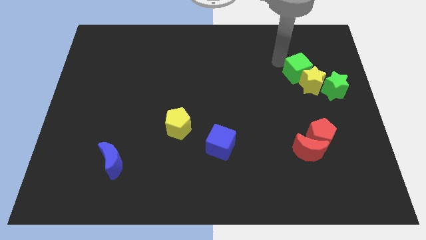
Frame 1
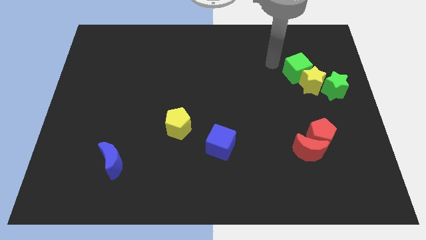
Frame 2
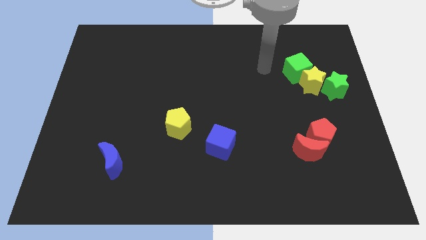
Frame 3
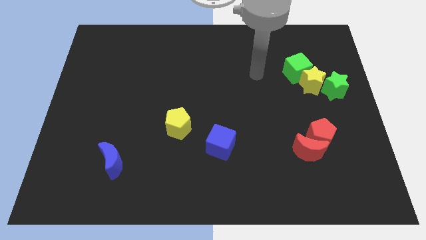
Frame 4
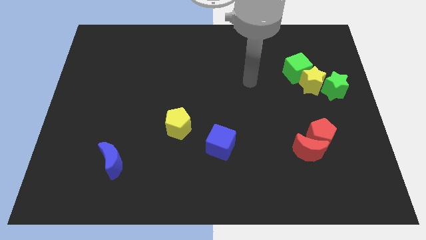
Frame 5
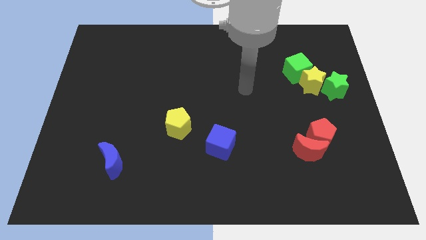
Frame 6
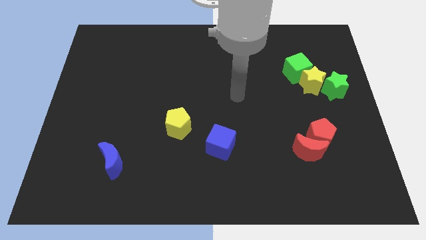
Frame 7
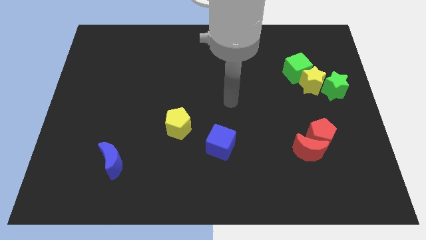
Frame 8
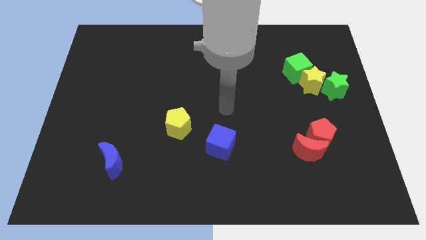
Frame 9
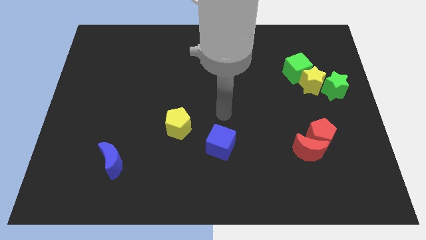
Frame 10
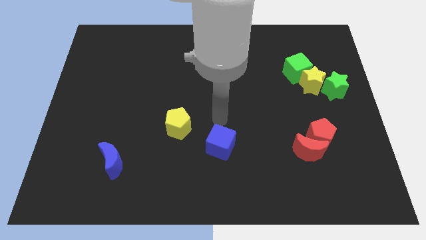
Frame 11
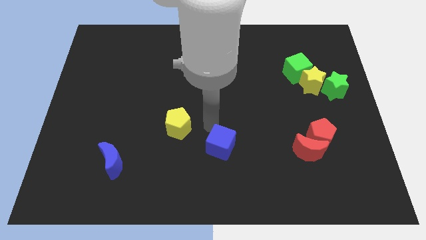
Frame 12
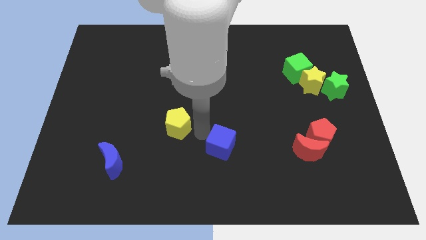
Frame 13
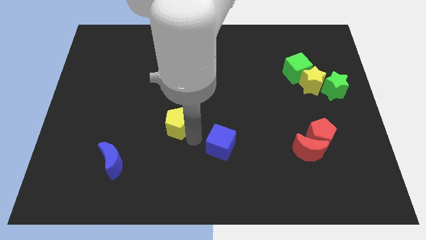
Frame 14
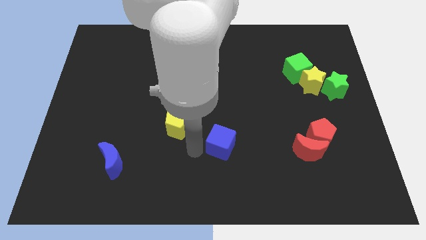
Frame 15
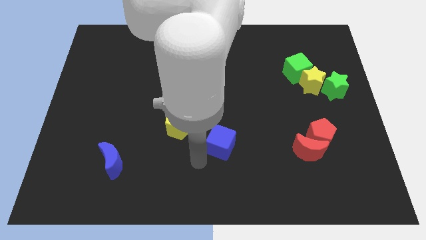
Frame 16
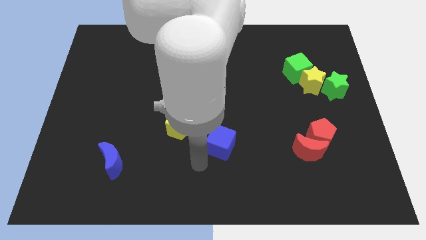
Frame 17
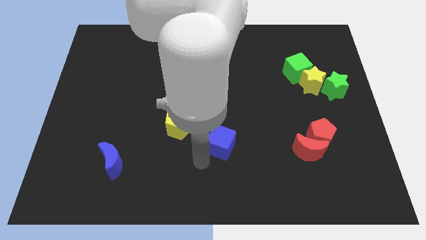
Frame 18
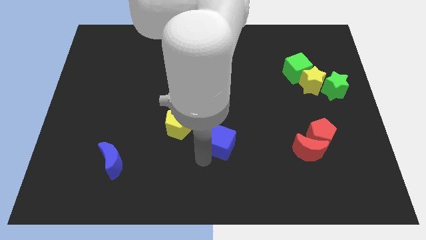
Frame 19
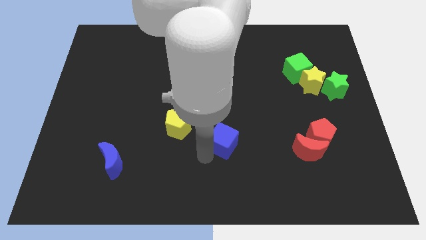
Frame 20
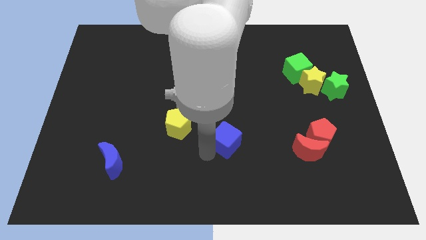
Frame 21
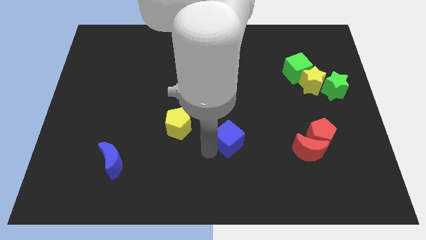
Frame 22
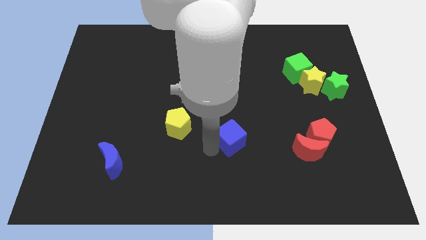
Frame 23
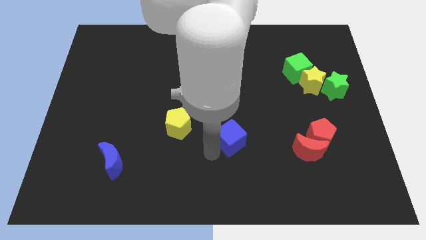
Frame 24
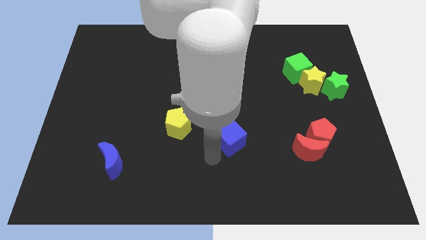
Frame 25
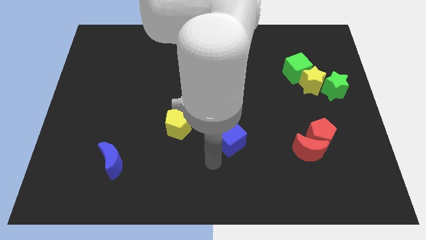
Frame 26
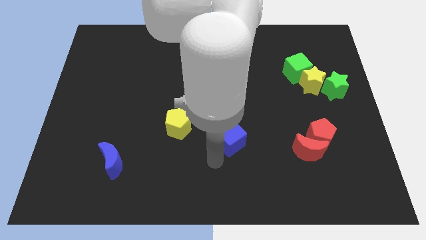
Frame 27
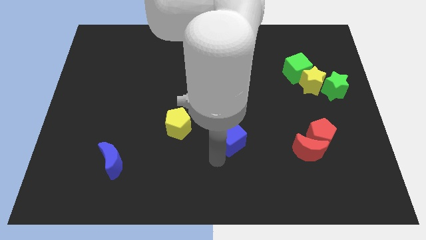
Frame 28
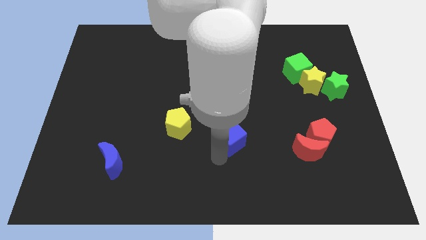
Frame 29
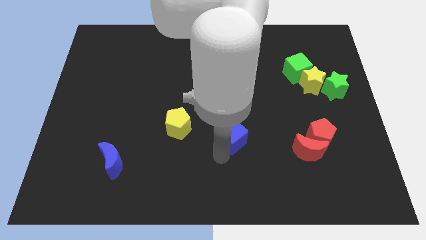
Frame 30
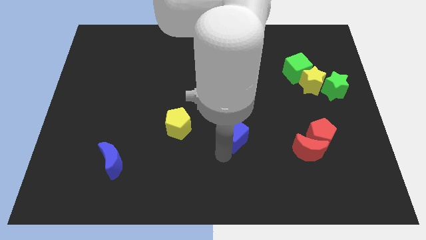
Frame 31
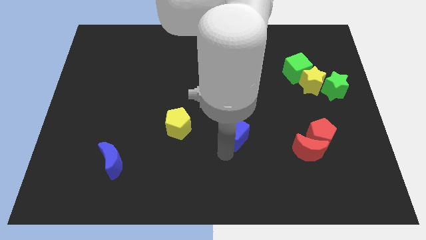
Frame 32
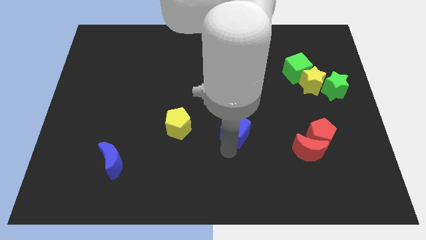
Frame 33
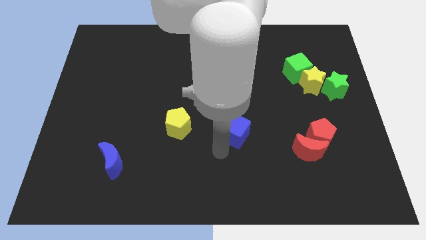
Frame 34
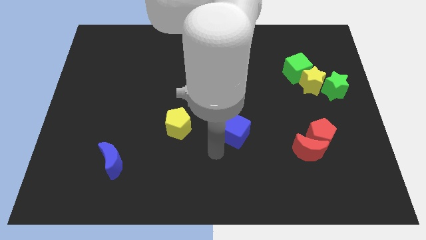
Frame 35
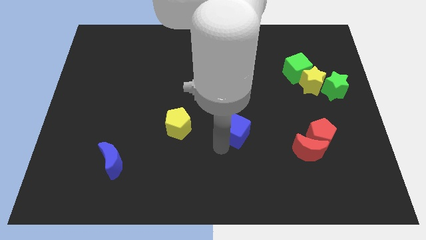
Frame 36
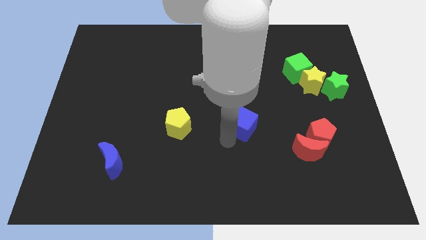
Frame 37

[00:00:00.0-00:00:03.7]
slide the blue cube upwards and to the right a bit

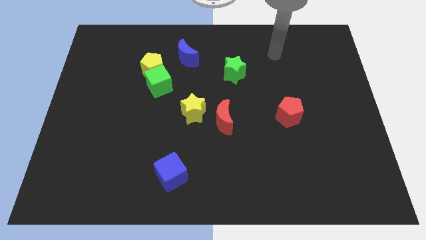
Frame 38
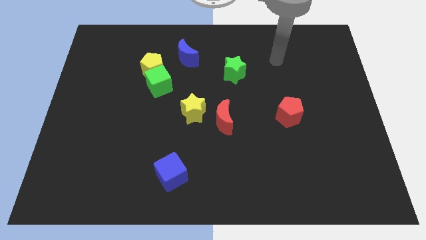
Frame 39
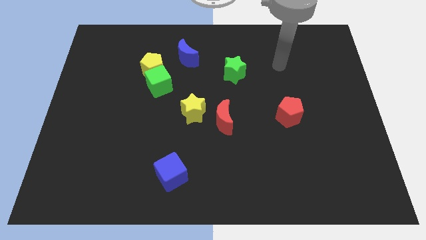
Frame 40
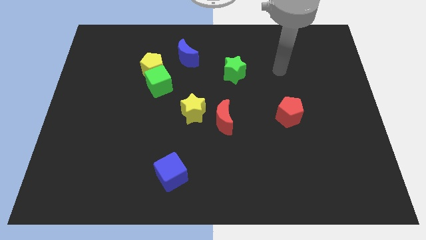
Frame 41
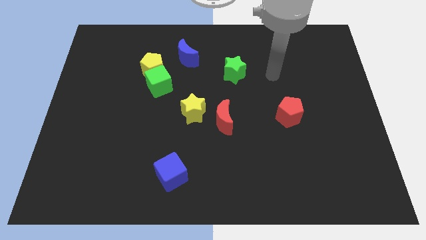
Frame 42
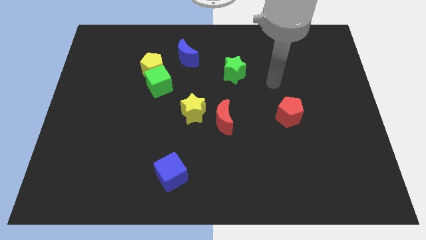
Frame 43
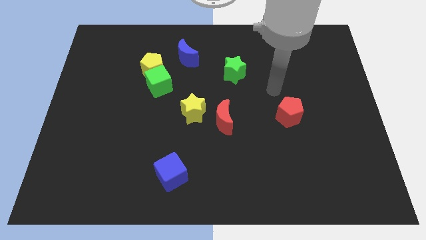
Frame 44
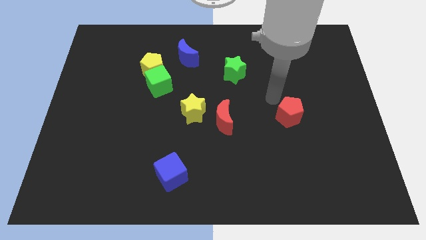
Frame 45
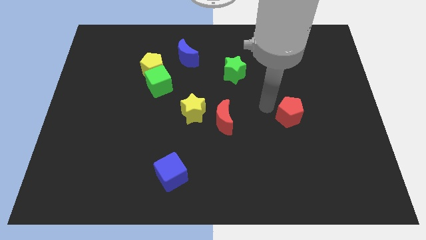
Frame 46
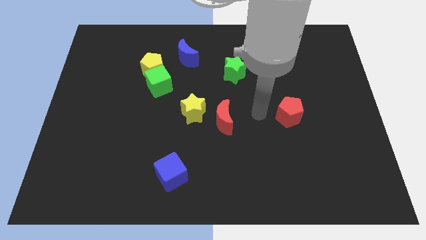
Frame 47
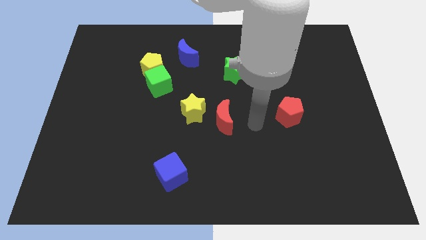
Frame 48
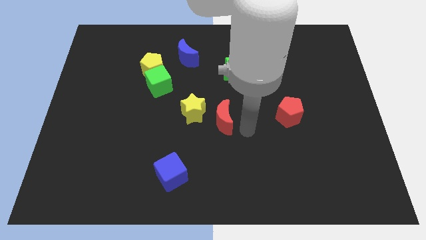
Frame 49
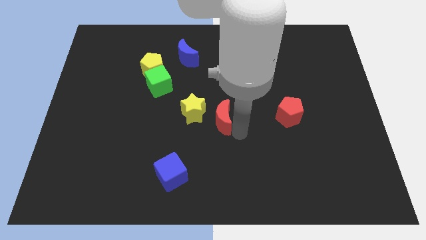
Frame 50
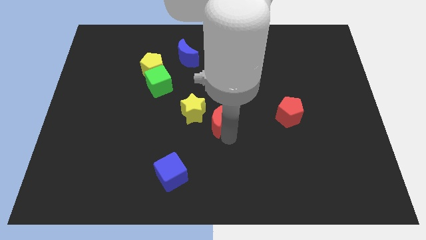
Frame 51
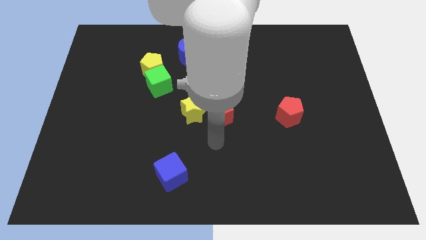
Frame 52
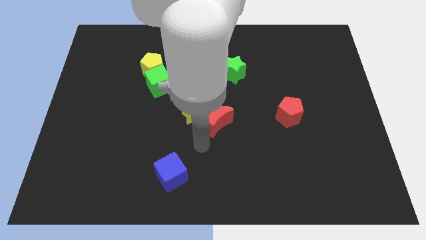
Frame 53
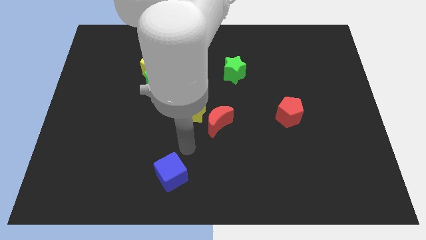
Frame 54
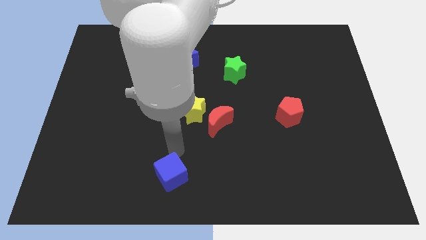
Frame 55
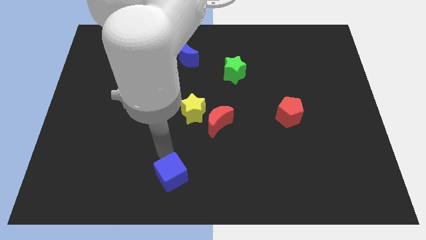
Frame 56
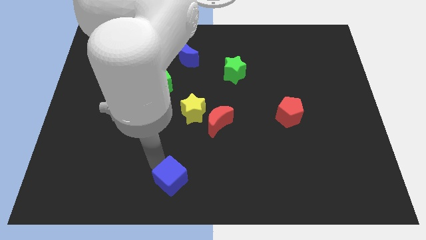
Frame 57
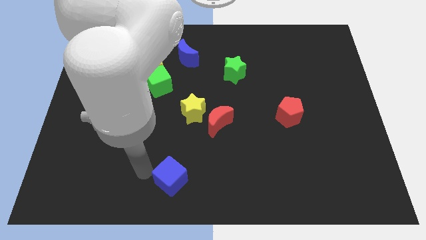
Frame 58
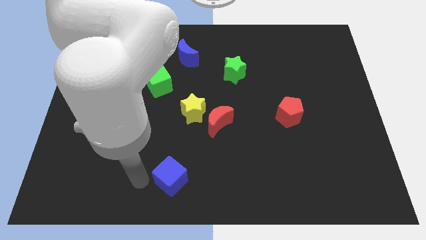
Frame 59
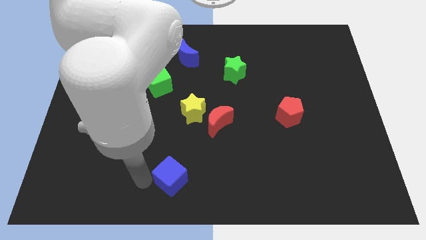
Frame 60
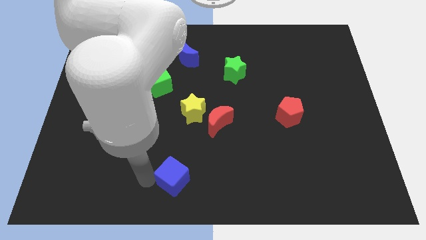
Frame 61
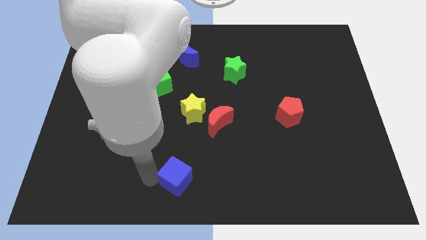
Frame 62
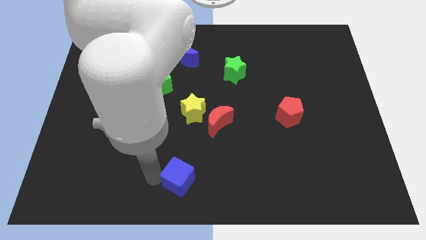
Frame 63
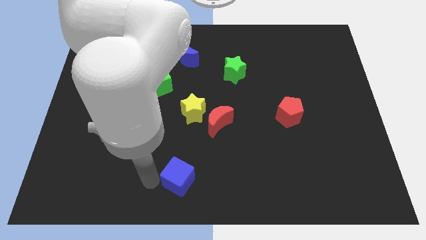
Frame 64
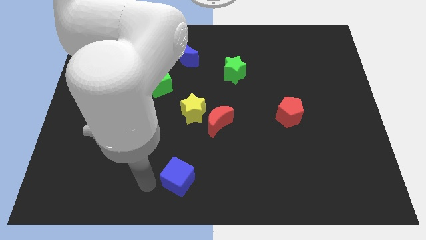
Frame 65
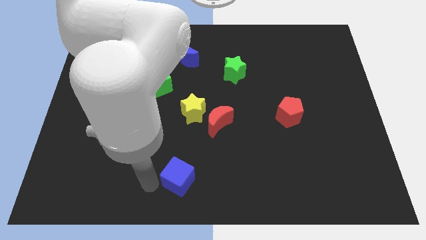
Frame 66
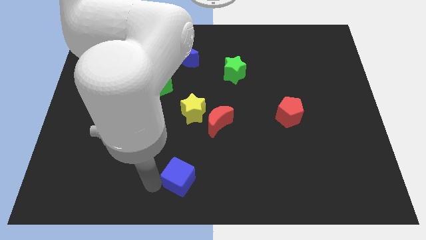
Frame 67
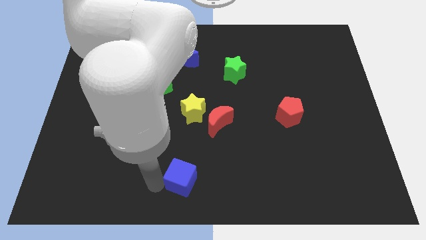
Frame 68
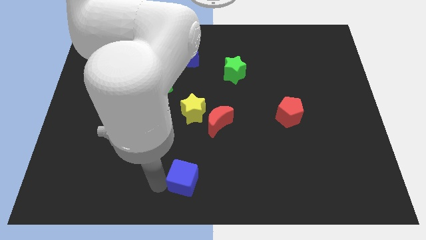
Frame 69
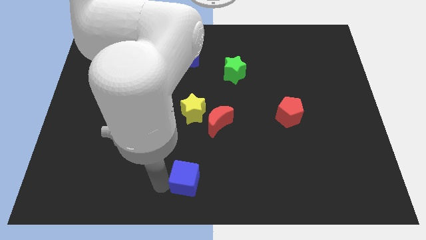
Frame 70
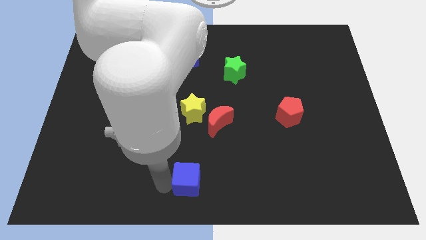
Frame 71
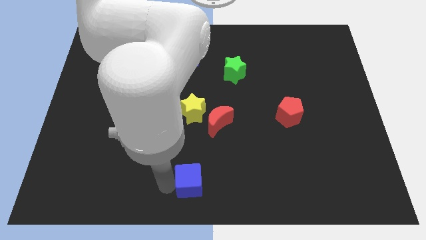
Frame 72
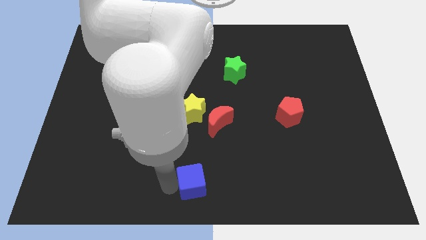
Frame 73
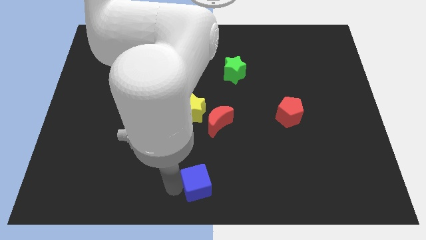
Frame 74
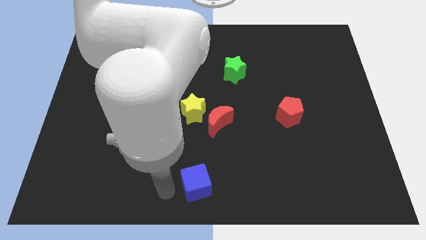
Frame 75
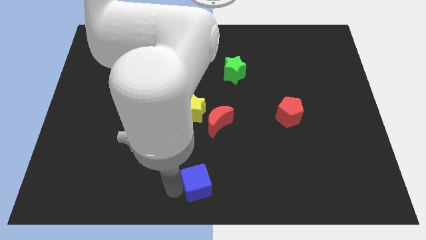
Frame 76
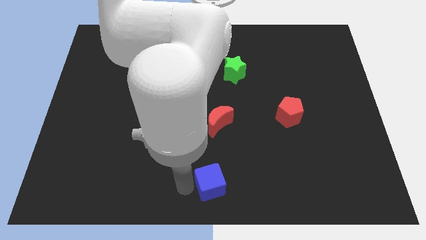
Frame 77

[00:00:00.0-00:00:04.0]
move the blue cube a little bit right

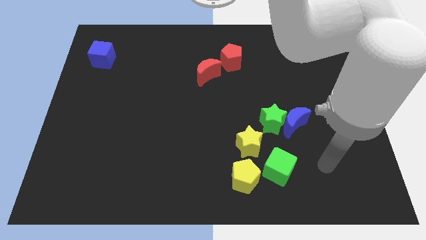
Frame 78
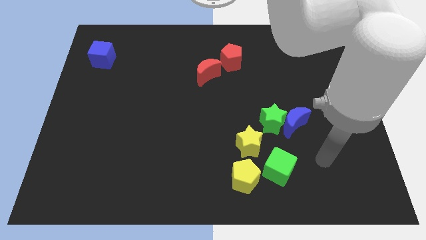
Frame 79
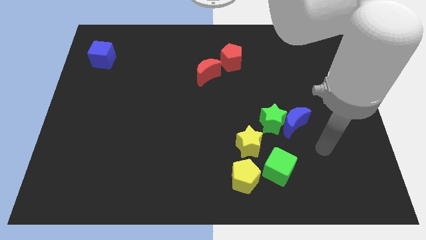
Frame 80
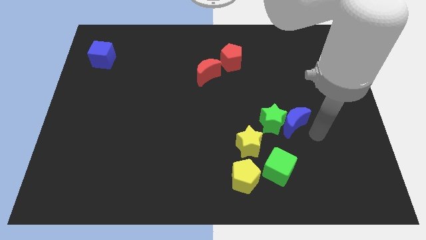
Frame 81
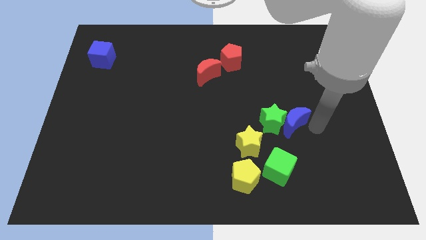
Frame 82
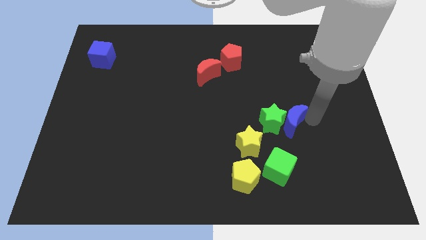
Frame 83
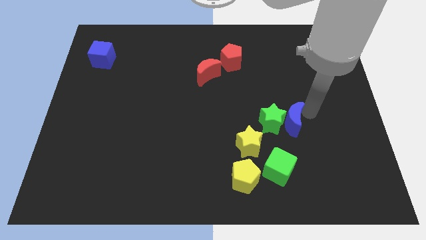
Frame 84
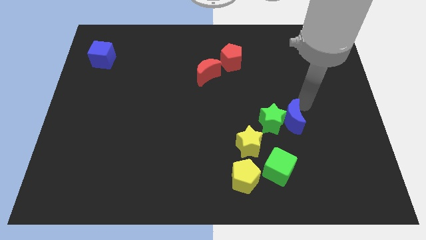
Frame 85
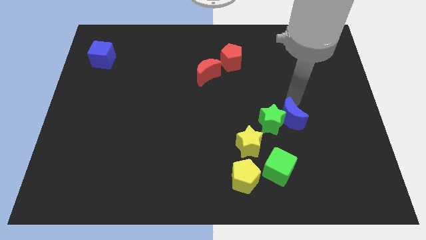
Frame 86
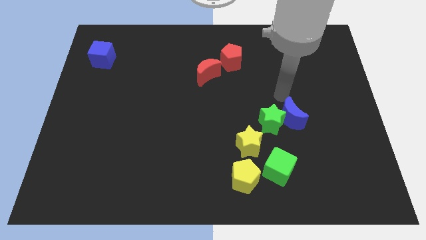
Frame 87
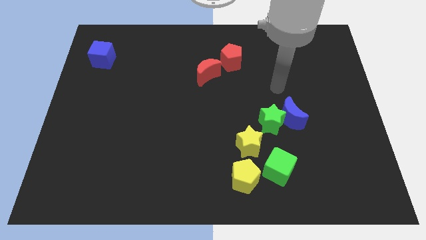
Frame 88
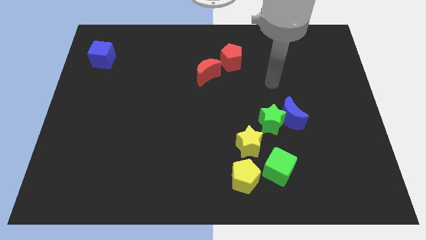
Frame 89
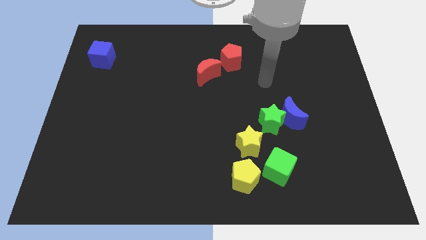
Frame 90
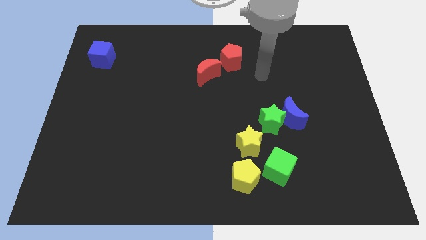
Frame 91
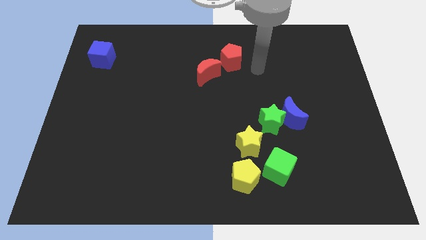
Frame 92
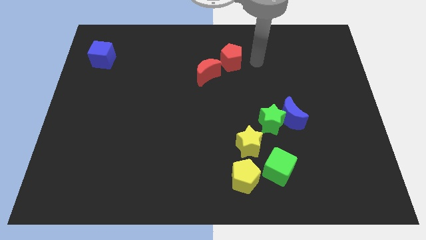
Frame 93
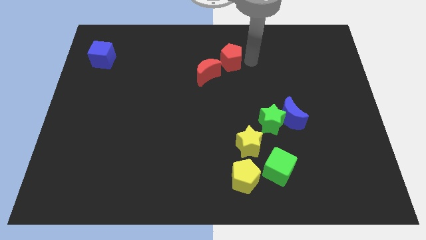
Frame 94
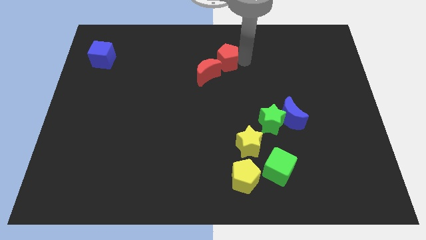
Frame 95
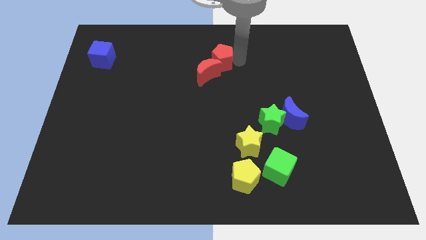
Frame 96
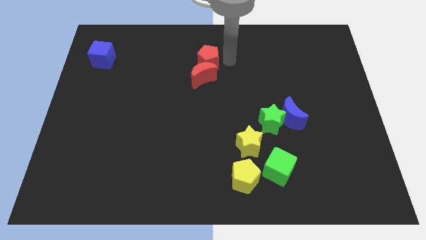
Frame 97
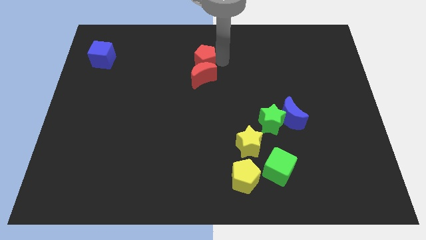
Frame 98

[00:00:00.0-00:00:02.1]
slightly push the red pentagon to the left
